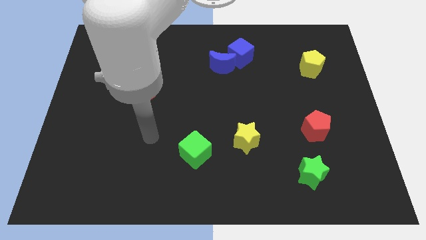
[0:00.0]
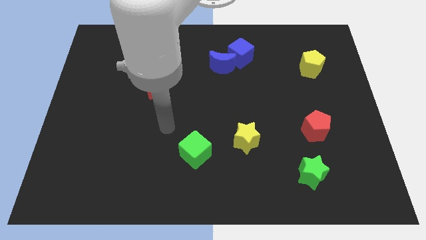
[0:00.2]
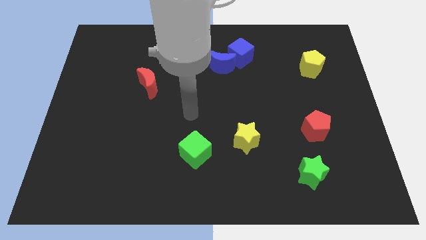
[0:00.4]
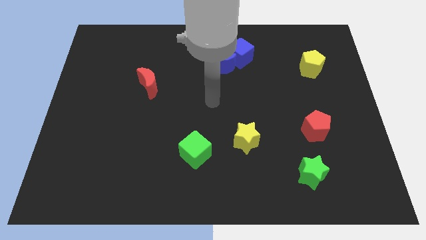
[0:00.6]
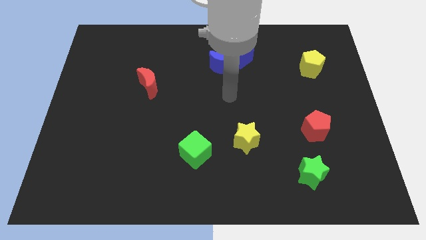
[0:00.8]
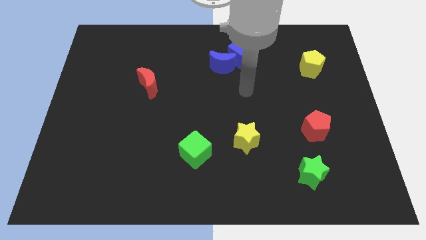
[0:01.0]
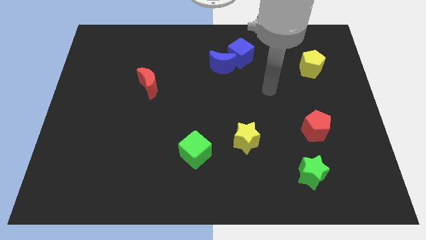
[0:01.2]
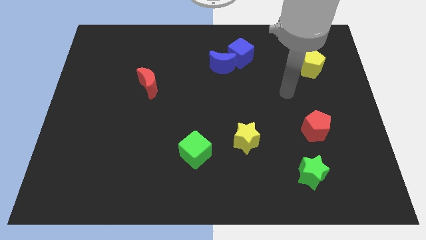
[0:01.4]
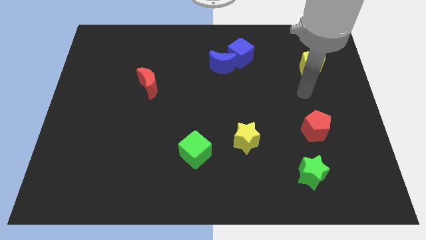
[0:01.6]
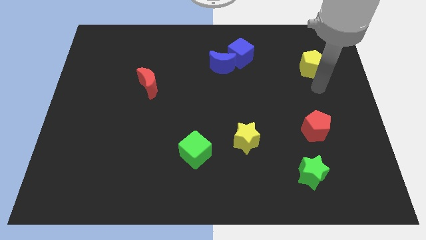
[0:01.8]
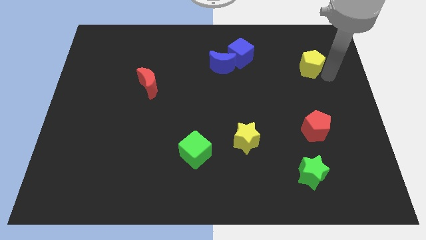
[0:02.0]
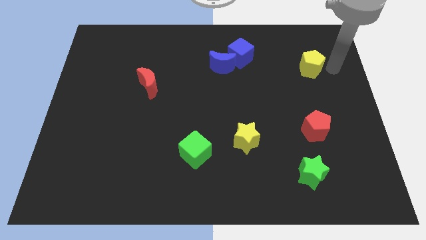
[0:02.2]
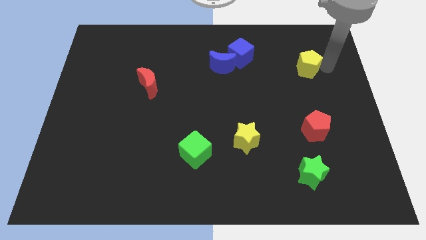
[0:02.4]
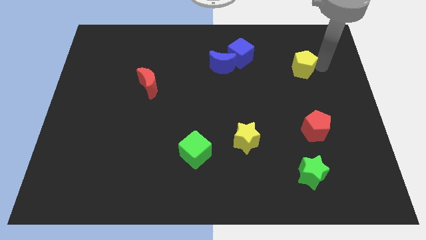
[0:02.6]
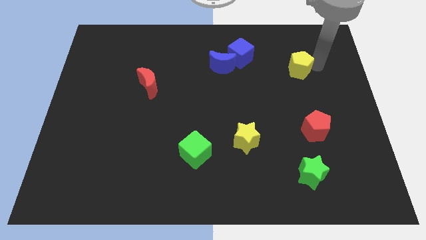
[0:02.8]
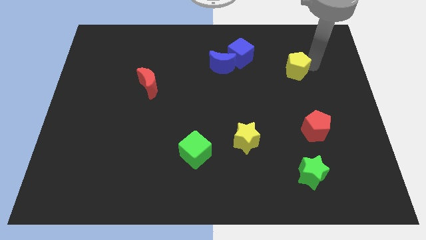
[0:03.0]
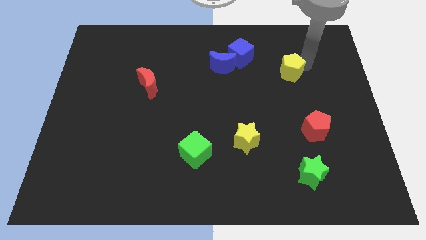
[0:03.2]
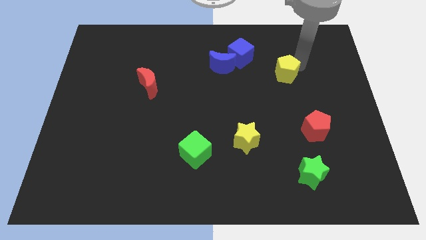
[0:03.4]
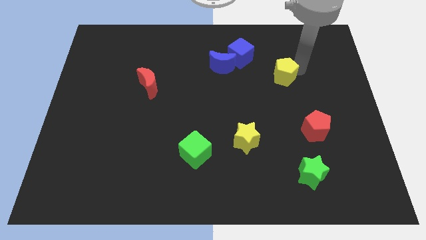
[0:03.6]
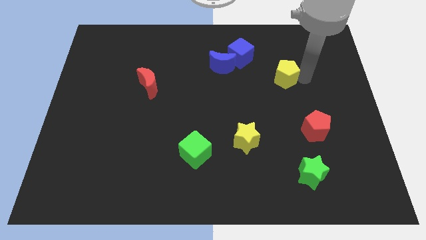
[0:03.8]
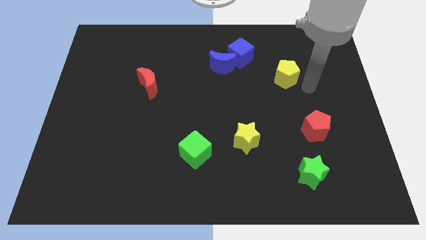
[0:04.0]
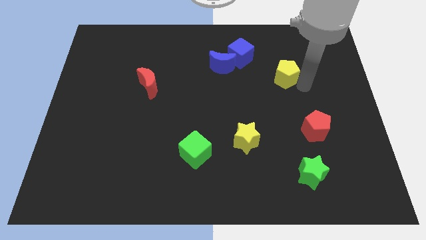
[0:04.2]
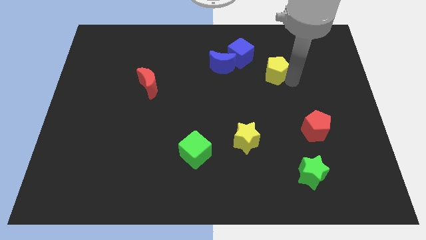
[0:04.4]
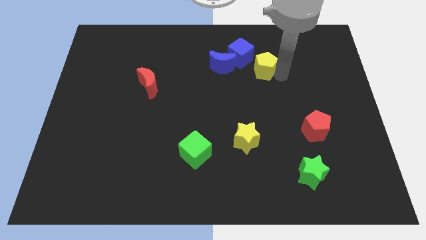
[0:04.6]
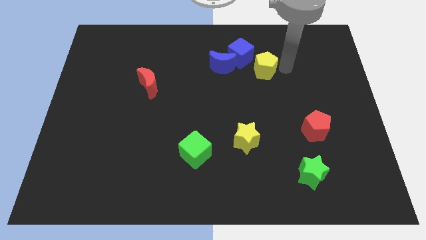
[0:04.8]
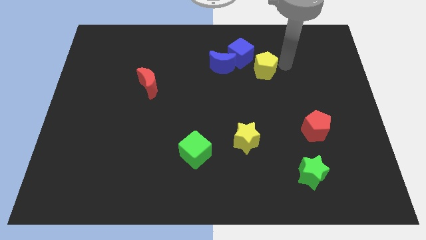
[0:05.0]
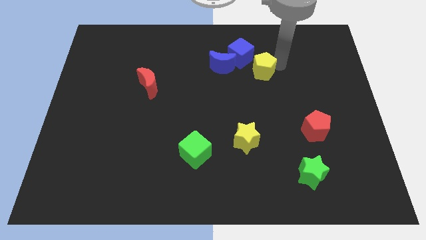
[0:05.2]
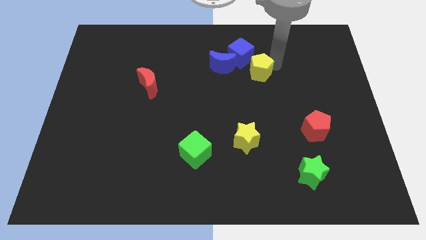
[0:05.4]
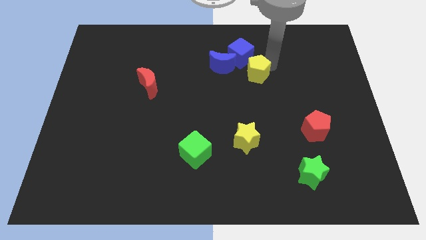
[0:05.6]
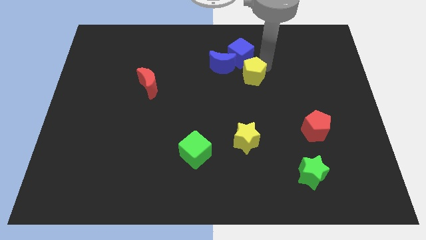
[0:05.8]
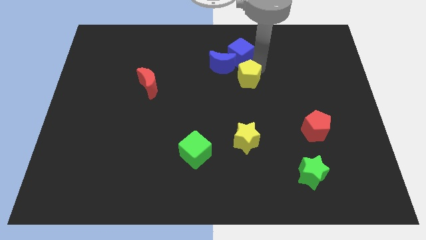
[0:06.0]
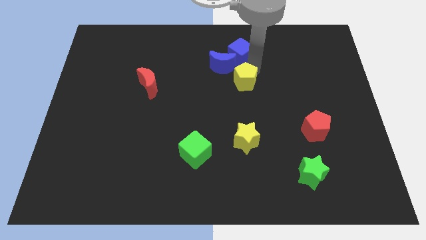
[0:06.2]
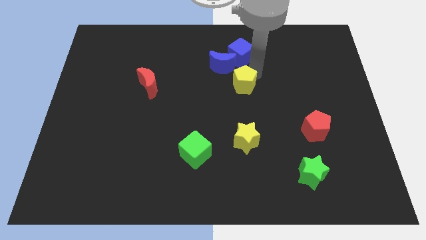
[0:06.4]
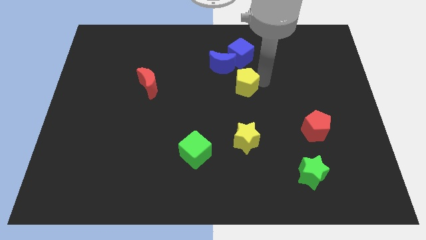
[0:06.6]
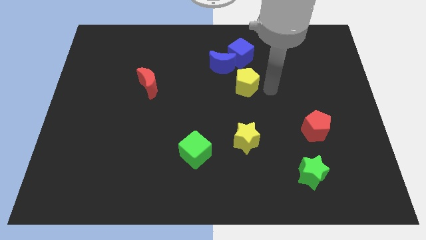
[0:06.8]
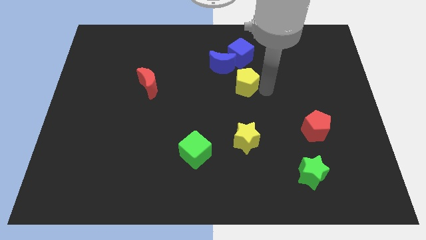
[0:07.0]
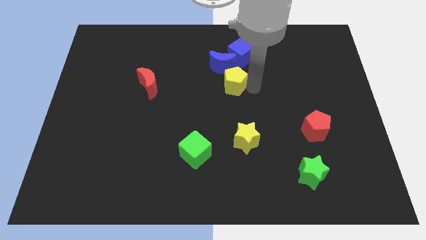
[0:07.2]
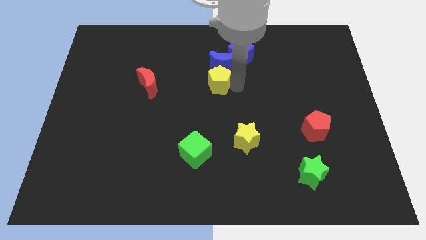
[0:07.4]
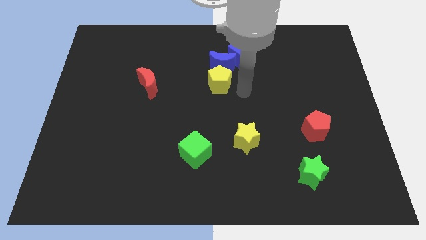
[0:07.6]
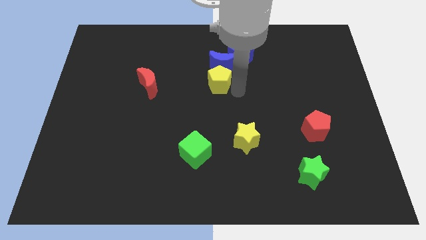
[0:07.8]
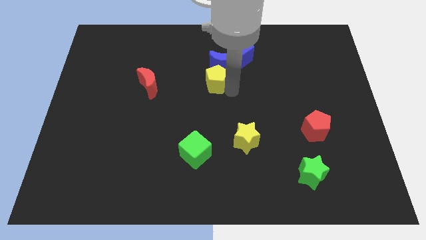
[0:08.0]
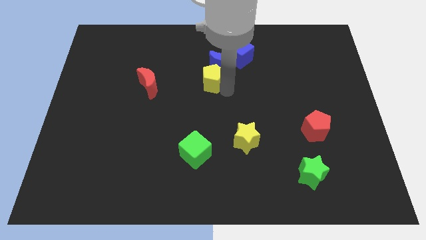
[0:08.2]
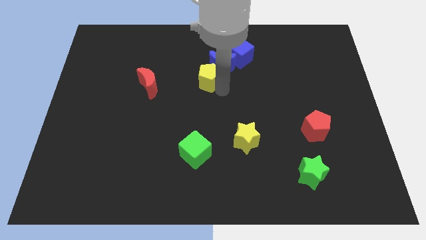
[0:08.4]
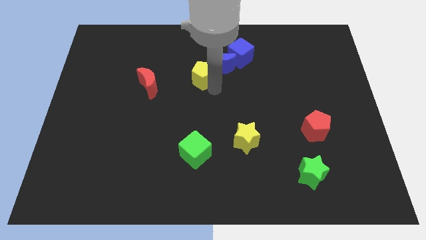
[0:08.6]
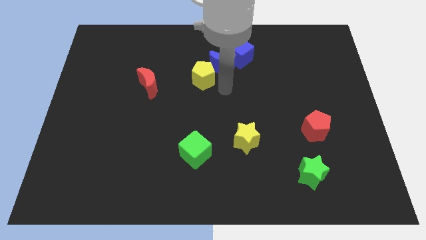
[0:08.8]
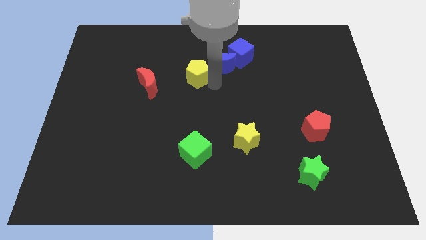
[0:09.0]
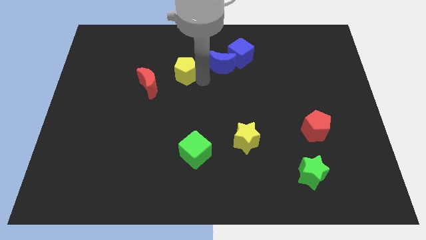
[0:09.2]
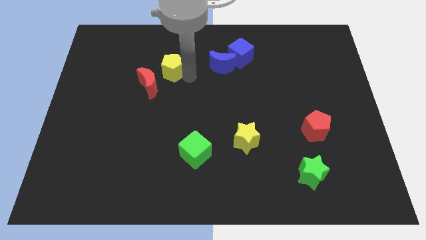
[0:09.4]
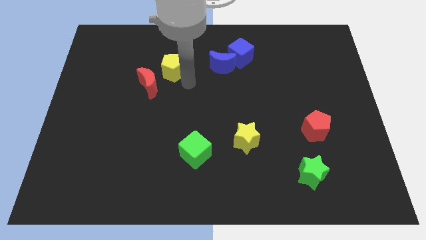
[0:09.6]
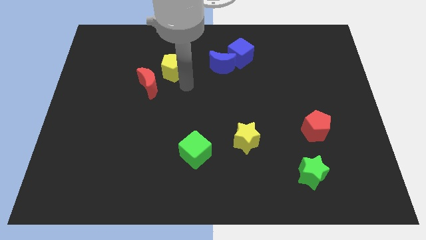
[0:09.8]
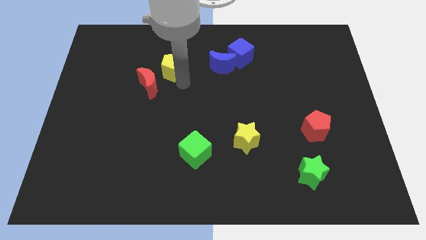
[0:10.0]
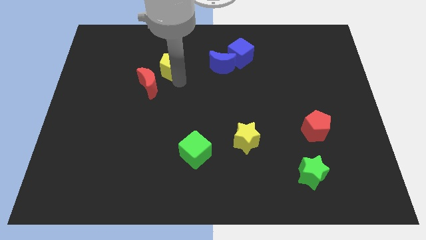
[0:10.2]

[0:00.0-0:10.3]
move the yellow pentagon to the top side of the red moon

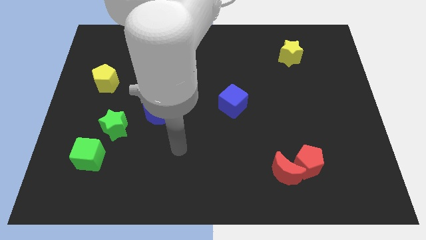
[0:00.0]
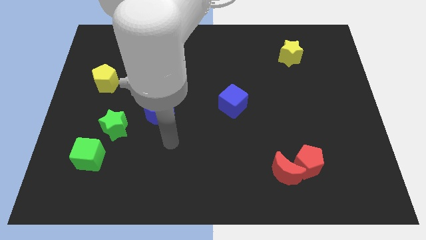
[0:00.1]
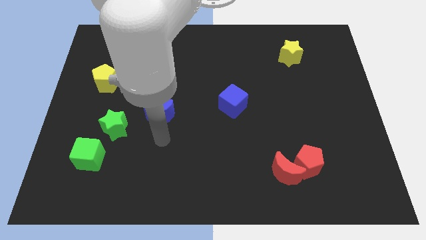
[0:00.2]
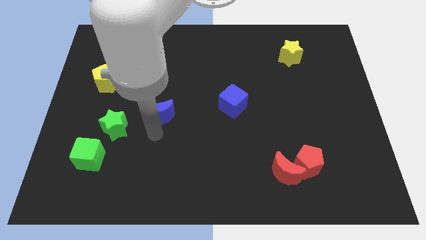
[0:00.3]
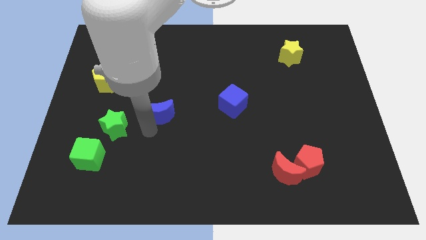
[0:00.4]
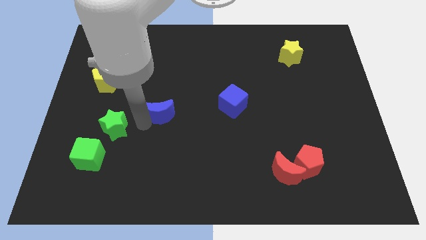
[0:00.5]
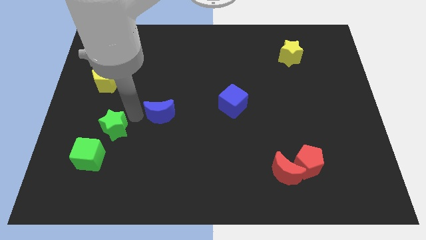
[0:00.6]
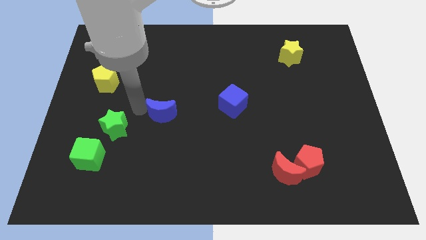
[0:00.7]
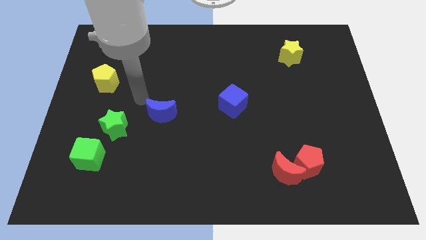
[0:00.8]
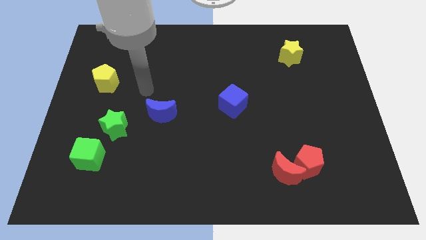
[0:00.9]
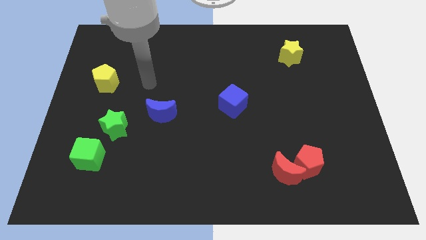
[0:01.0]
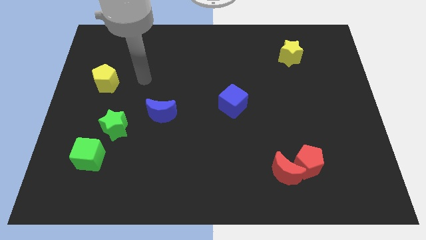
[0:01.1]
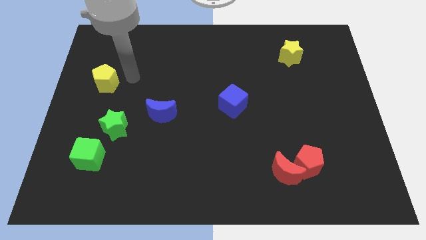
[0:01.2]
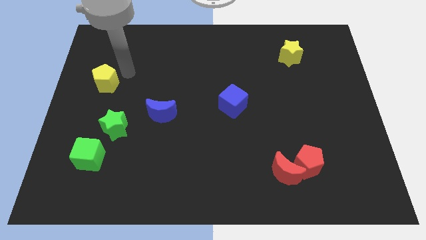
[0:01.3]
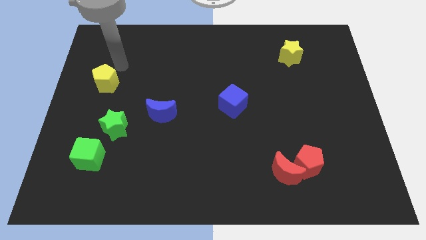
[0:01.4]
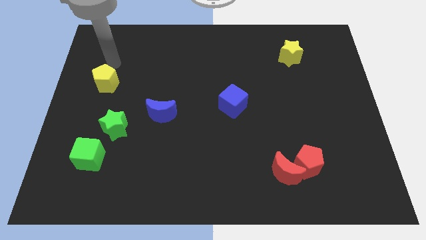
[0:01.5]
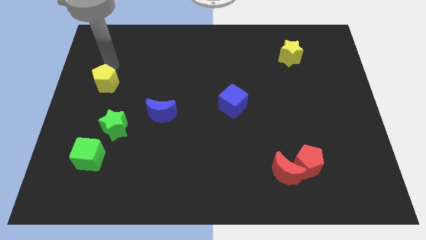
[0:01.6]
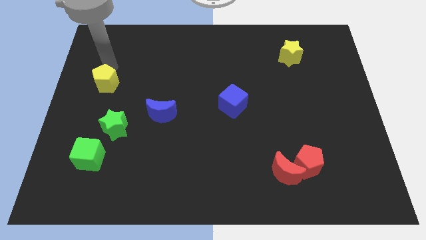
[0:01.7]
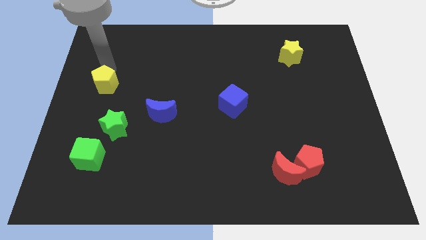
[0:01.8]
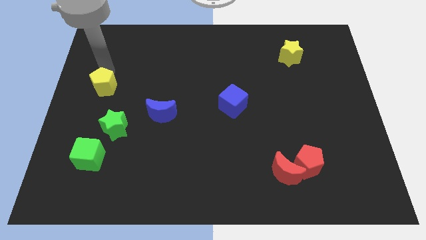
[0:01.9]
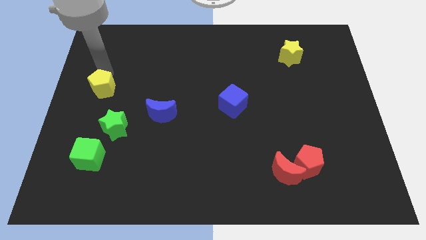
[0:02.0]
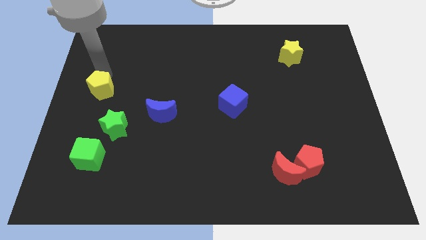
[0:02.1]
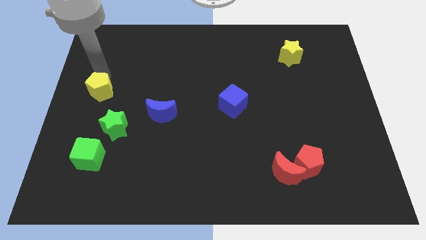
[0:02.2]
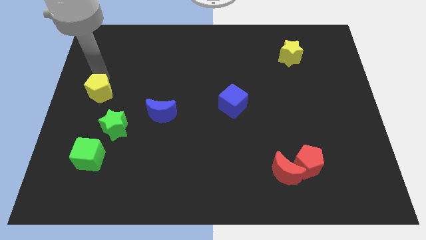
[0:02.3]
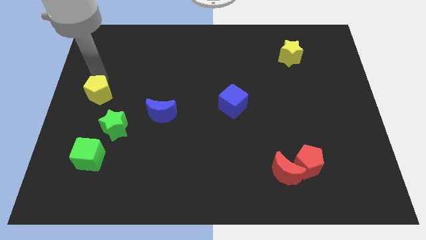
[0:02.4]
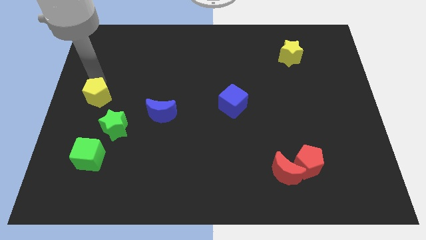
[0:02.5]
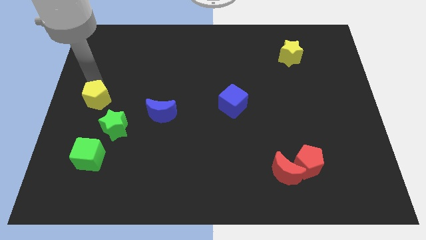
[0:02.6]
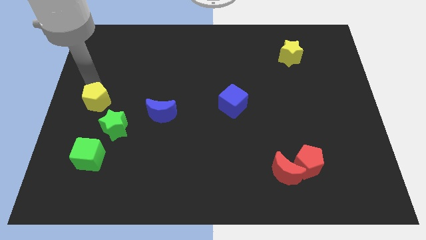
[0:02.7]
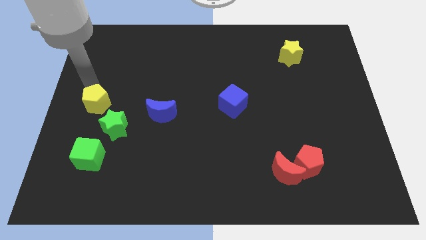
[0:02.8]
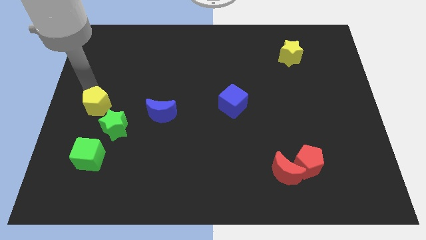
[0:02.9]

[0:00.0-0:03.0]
push the yellow pentagon just left of the blue moon
